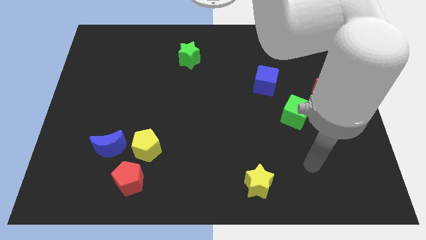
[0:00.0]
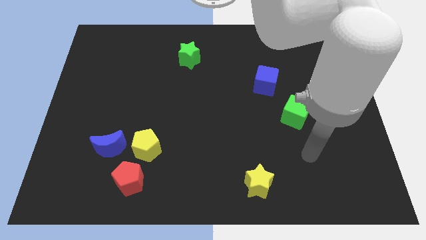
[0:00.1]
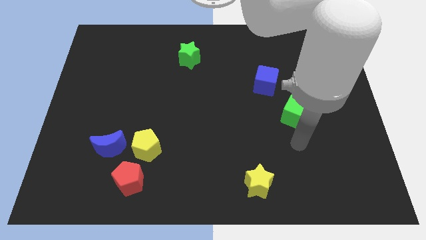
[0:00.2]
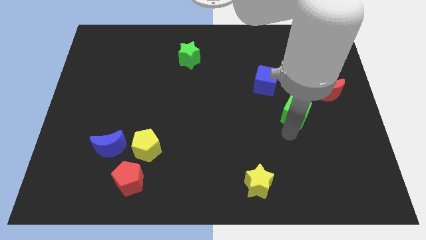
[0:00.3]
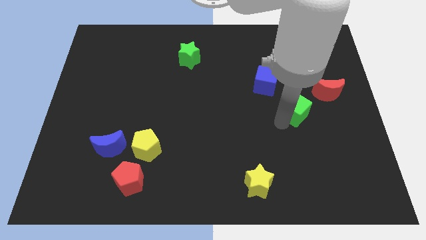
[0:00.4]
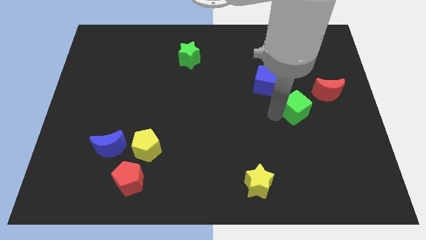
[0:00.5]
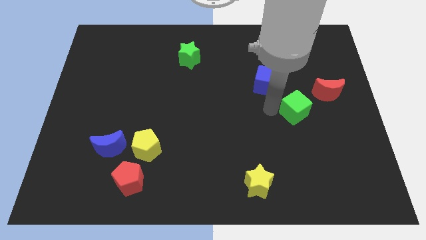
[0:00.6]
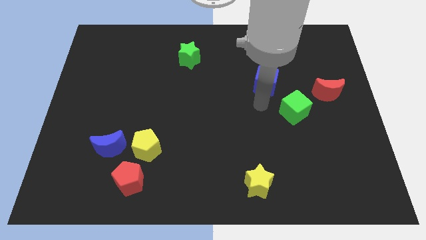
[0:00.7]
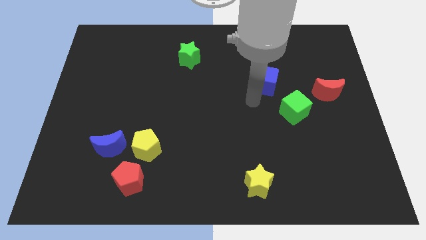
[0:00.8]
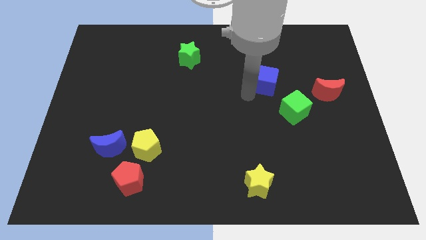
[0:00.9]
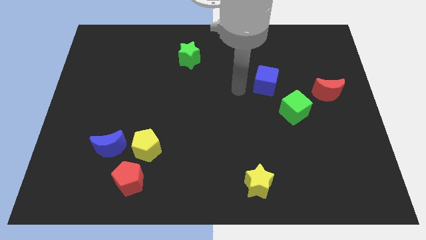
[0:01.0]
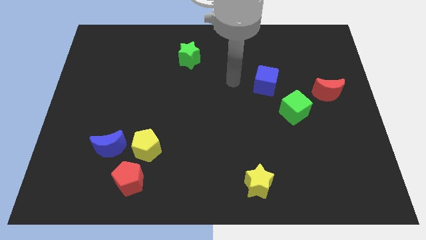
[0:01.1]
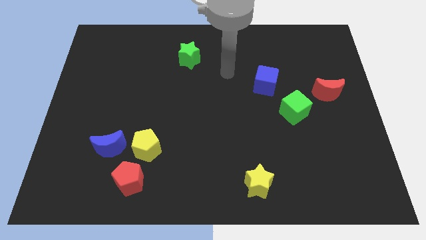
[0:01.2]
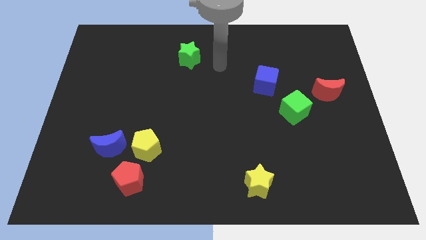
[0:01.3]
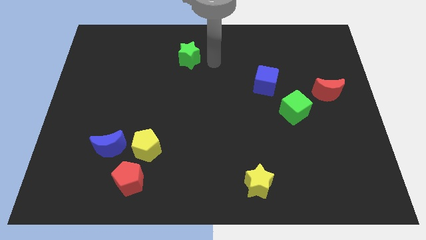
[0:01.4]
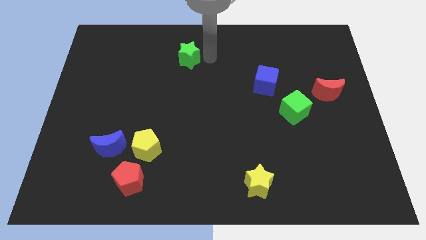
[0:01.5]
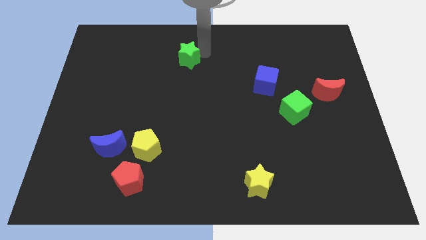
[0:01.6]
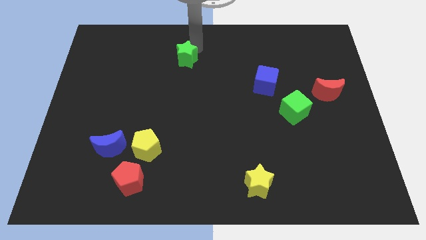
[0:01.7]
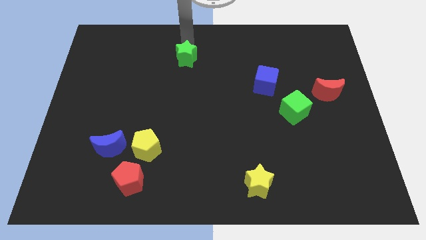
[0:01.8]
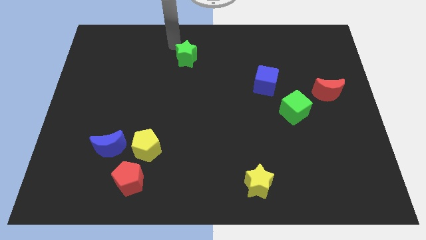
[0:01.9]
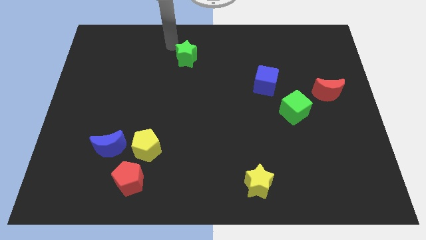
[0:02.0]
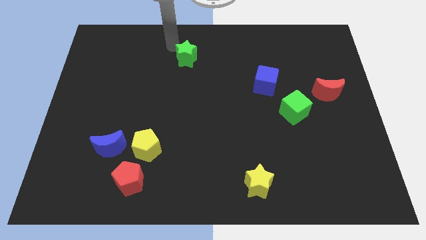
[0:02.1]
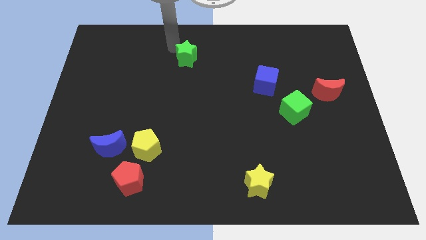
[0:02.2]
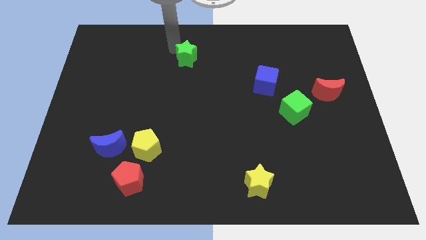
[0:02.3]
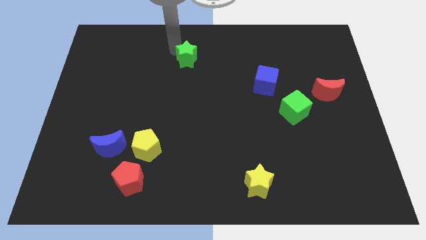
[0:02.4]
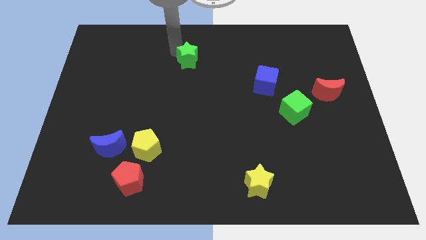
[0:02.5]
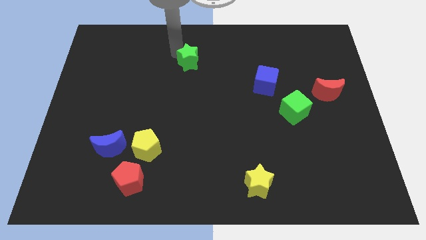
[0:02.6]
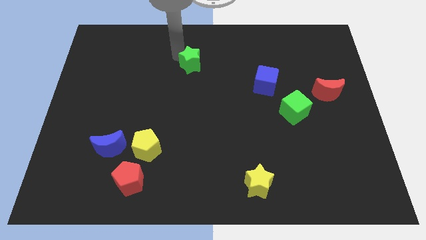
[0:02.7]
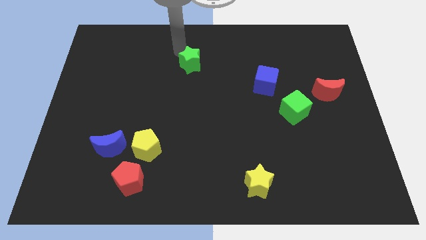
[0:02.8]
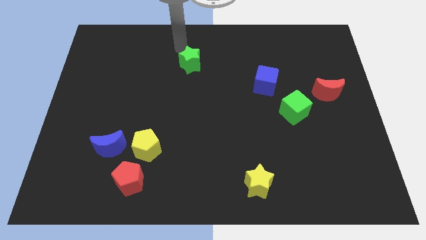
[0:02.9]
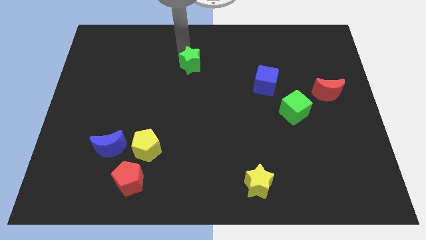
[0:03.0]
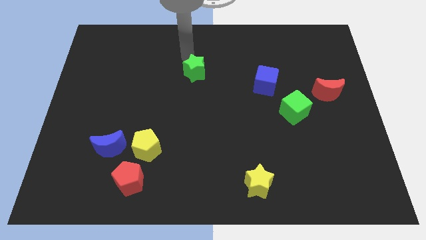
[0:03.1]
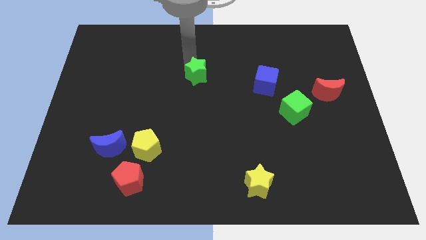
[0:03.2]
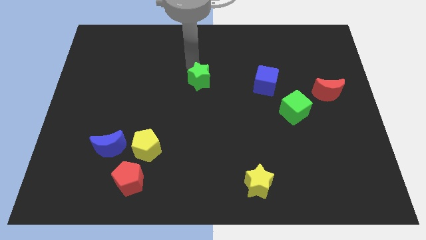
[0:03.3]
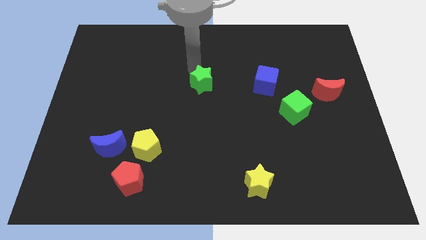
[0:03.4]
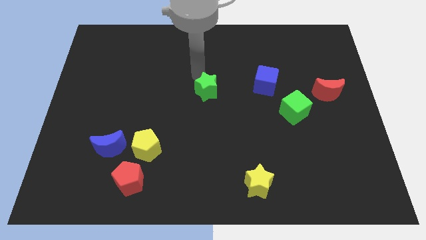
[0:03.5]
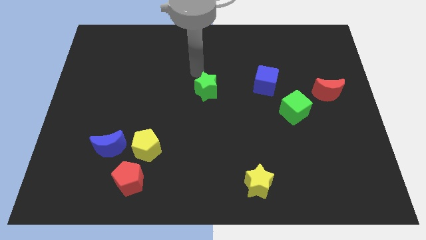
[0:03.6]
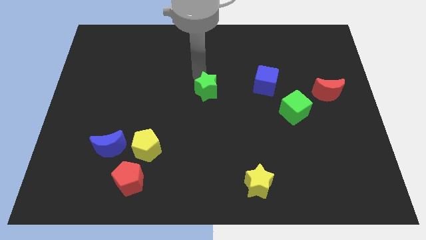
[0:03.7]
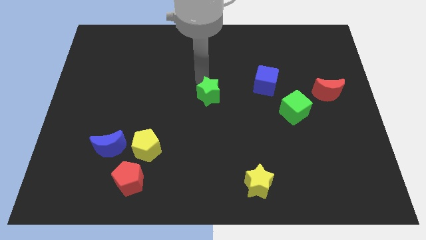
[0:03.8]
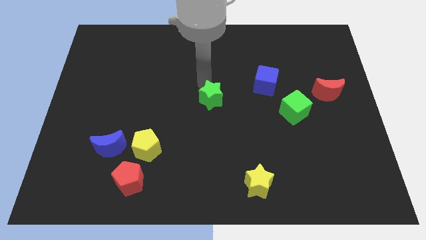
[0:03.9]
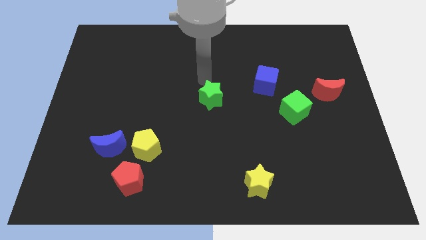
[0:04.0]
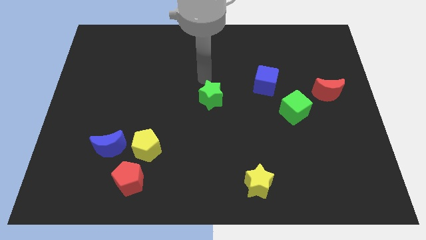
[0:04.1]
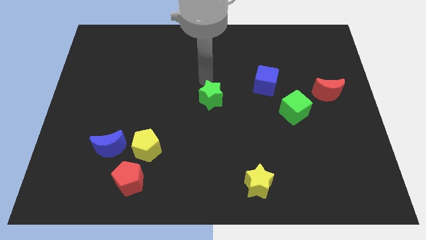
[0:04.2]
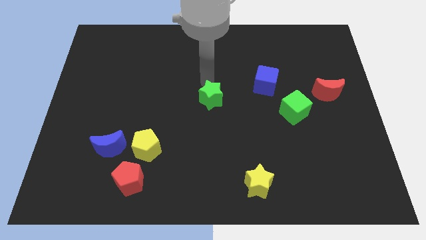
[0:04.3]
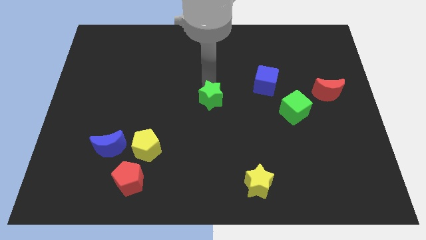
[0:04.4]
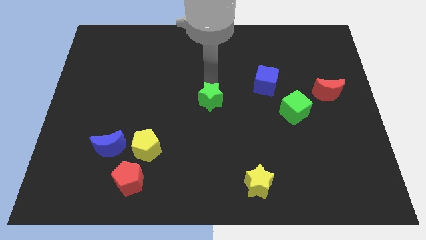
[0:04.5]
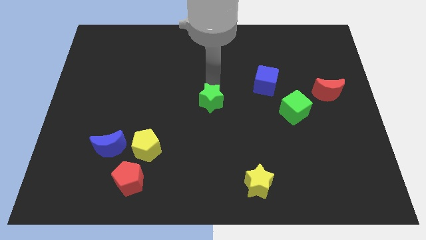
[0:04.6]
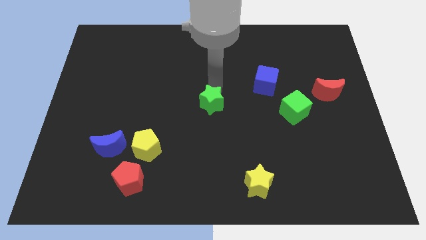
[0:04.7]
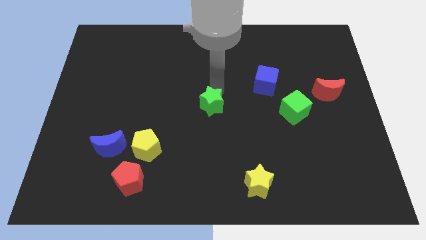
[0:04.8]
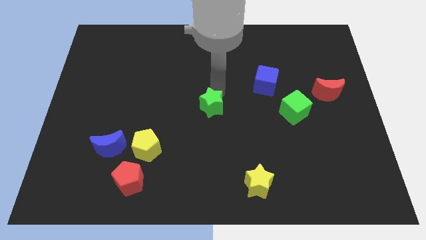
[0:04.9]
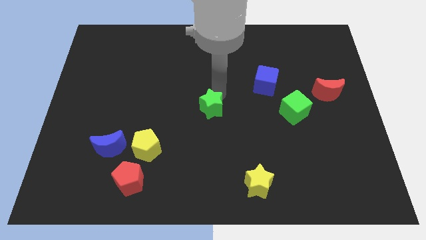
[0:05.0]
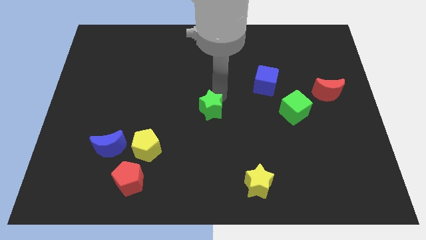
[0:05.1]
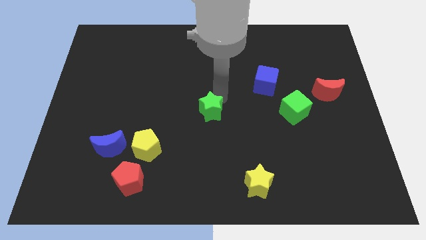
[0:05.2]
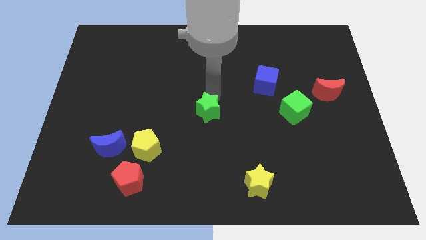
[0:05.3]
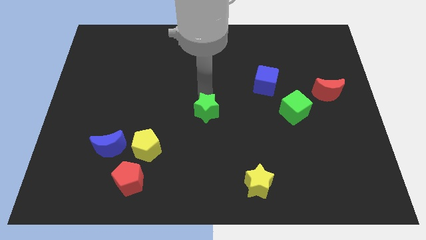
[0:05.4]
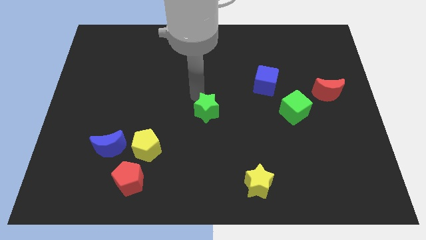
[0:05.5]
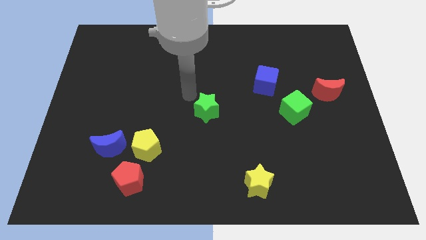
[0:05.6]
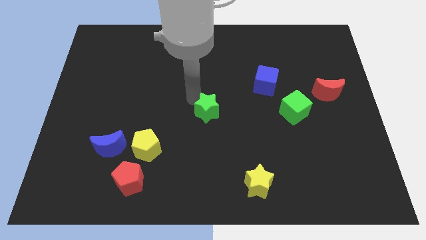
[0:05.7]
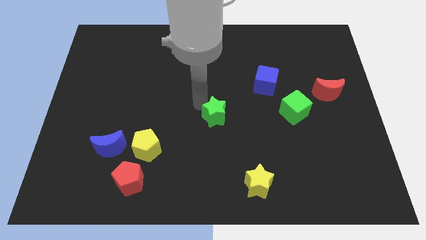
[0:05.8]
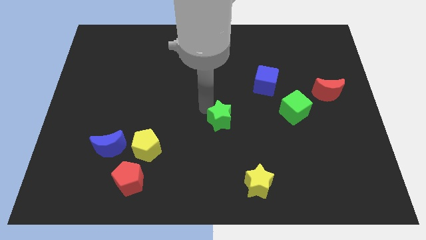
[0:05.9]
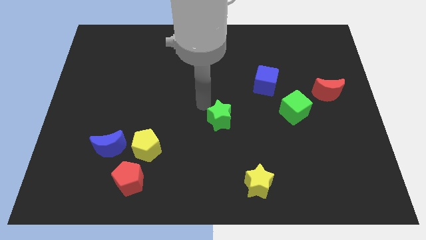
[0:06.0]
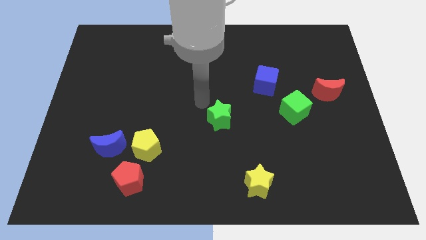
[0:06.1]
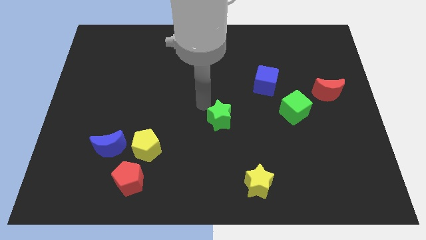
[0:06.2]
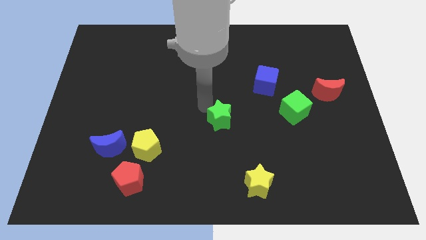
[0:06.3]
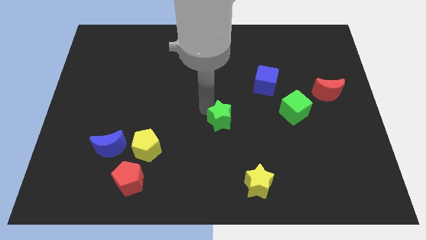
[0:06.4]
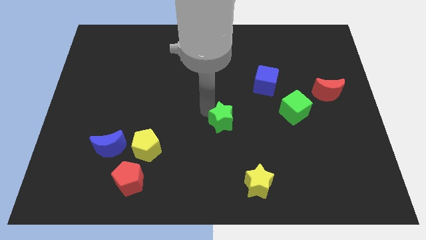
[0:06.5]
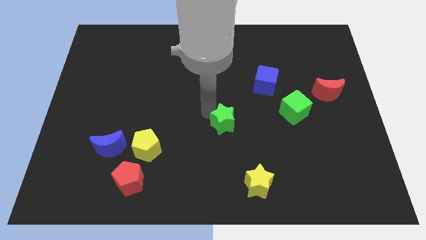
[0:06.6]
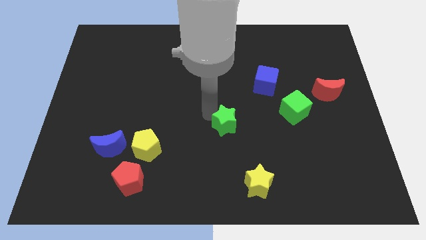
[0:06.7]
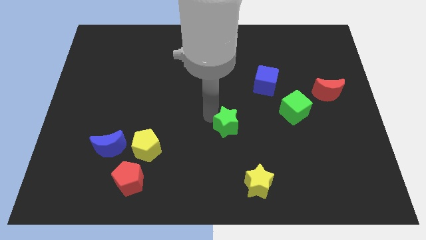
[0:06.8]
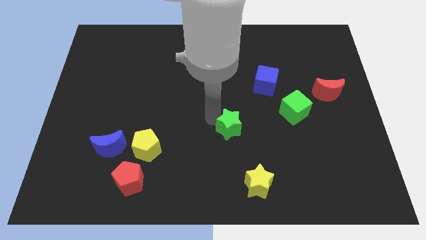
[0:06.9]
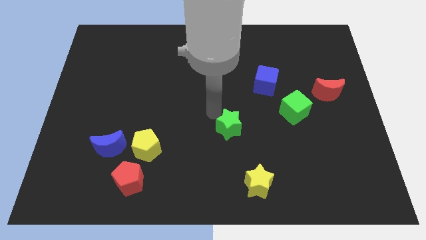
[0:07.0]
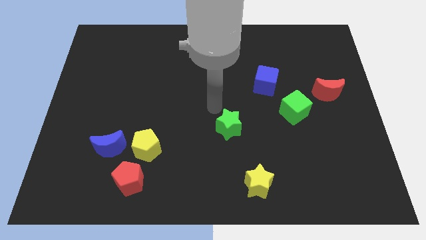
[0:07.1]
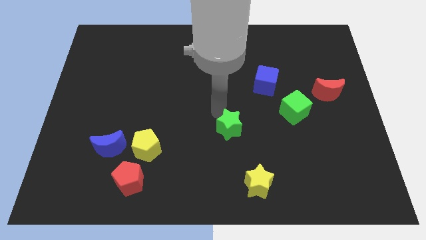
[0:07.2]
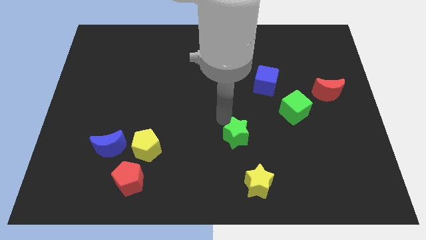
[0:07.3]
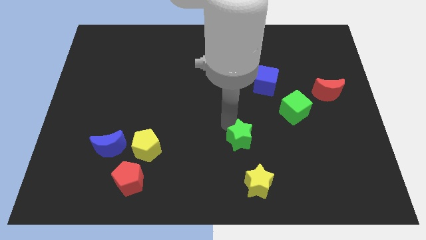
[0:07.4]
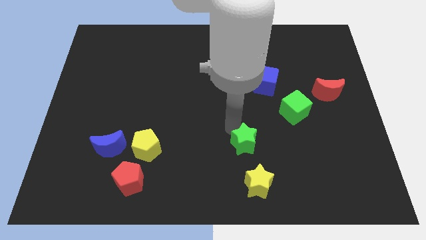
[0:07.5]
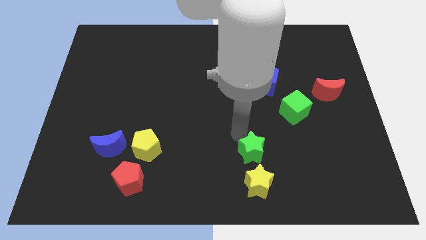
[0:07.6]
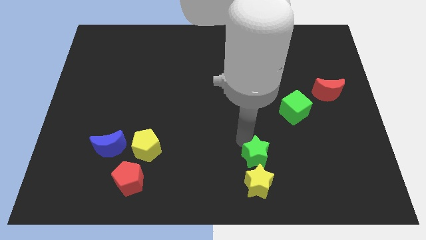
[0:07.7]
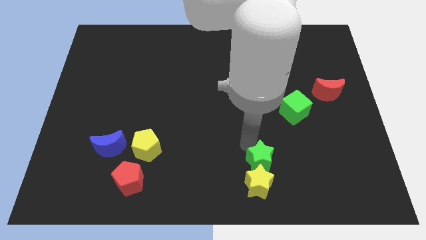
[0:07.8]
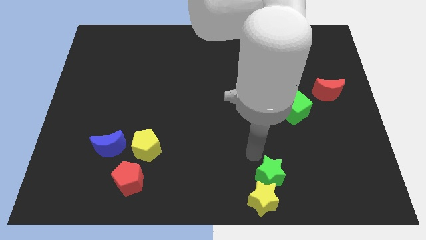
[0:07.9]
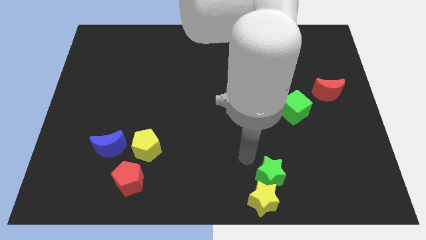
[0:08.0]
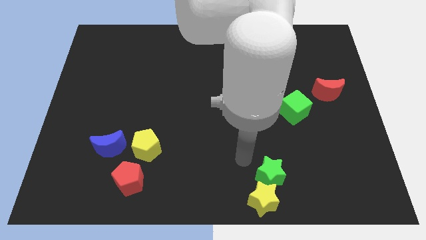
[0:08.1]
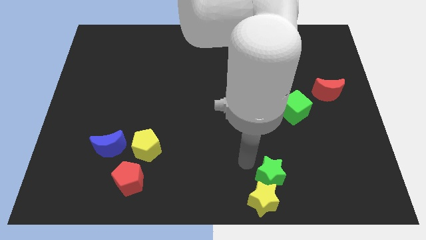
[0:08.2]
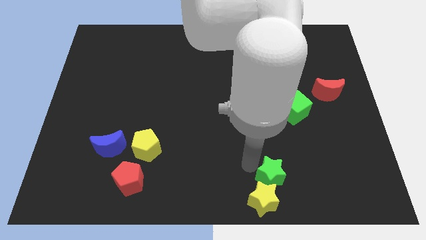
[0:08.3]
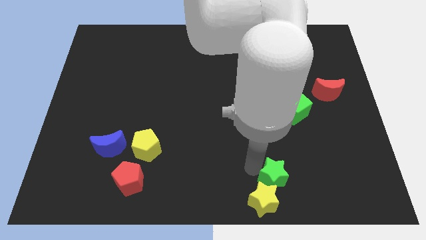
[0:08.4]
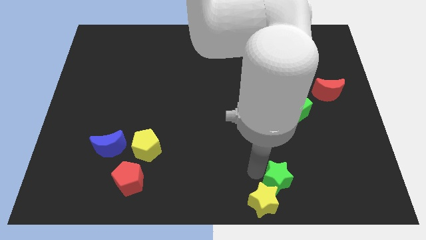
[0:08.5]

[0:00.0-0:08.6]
slide the green star to the right side of the yellow star
